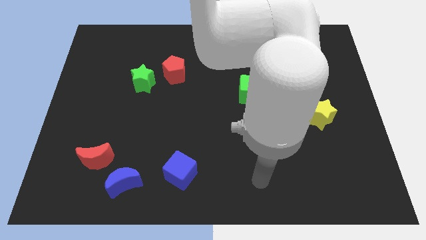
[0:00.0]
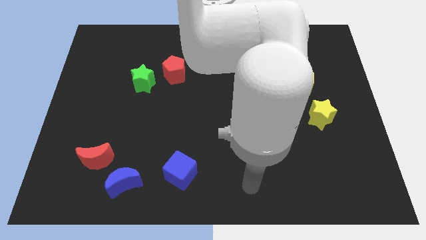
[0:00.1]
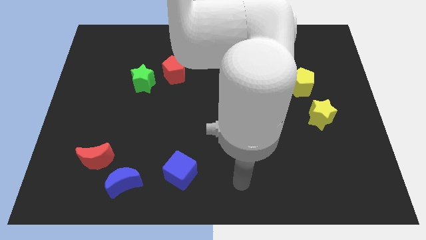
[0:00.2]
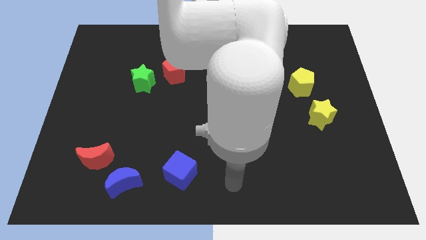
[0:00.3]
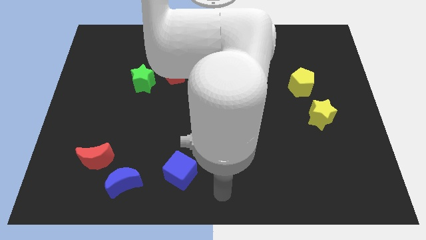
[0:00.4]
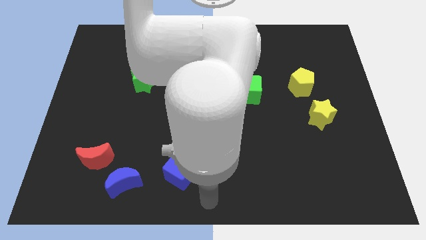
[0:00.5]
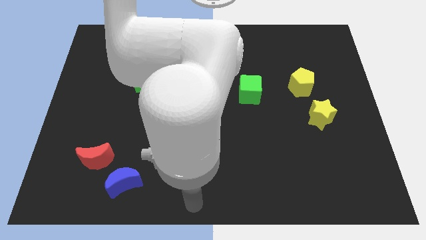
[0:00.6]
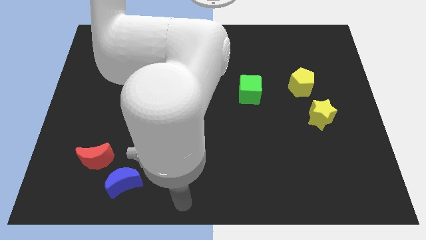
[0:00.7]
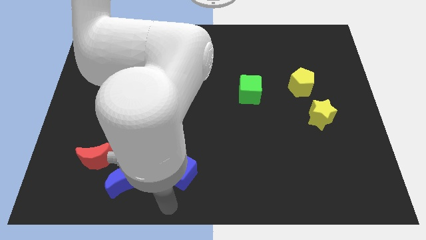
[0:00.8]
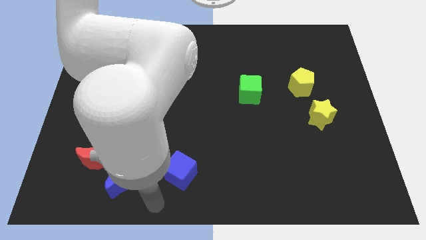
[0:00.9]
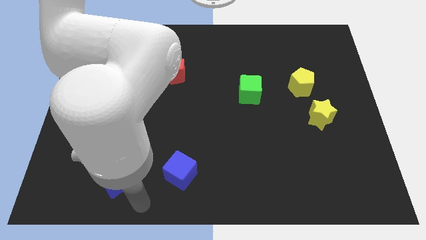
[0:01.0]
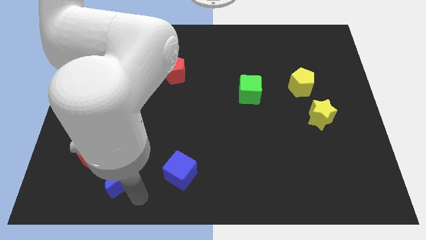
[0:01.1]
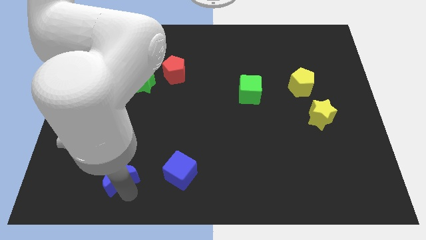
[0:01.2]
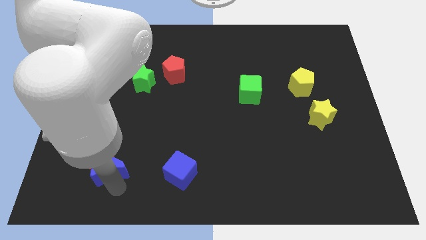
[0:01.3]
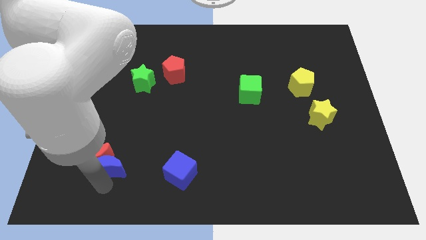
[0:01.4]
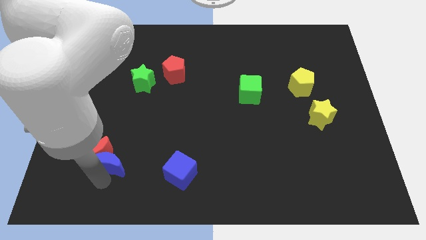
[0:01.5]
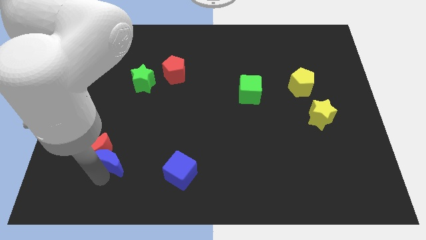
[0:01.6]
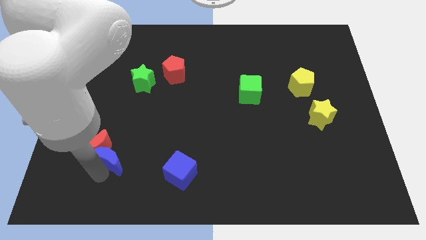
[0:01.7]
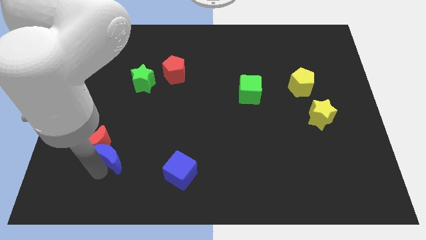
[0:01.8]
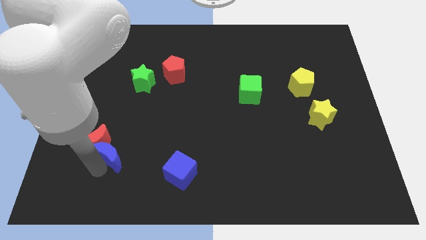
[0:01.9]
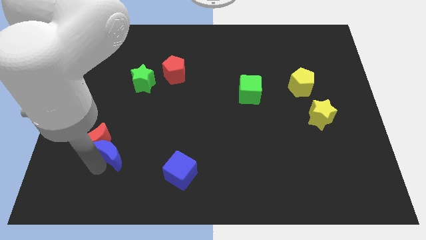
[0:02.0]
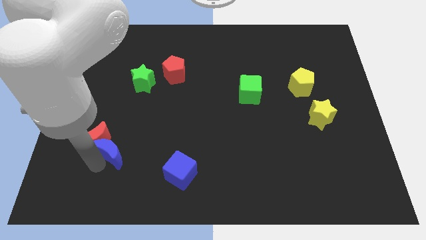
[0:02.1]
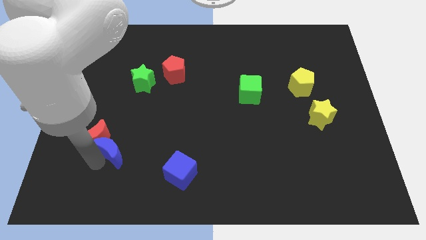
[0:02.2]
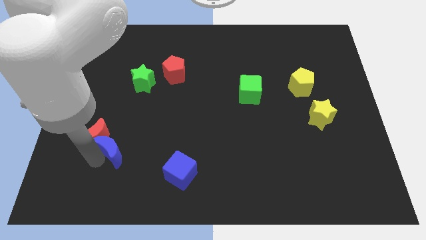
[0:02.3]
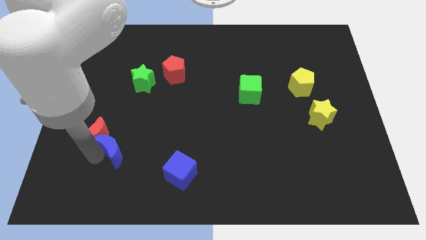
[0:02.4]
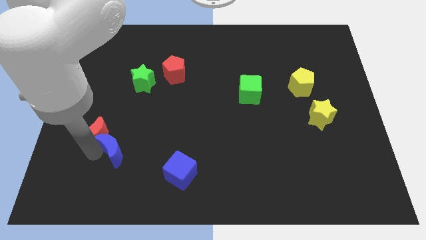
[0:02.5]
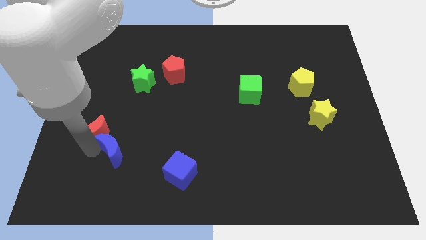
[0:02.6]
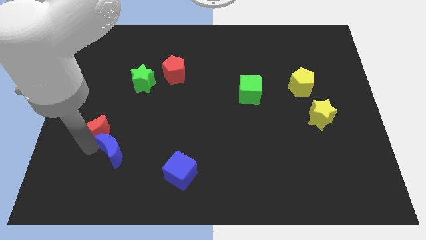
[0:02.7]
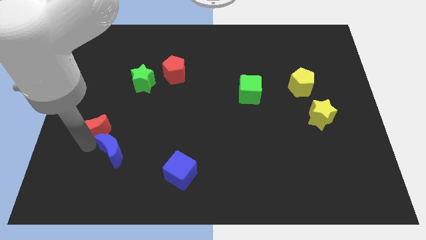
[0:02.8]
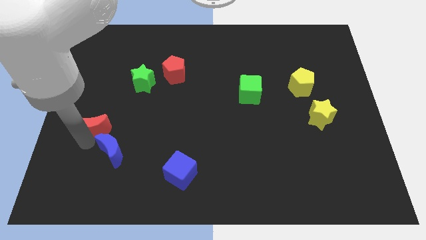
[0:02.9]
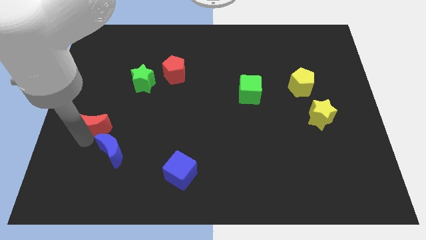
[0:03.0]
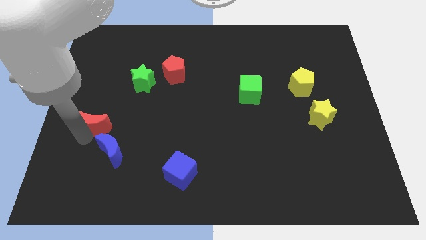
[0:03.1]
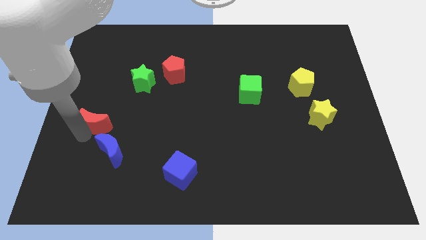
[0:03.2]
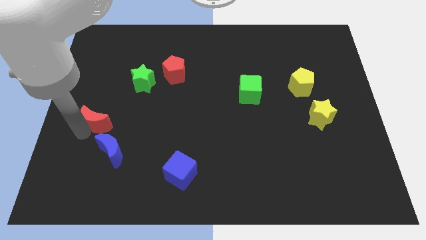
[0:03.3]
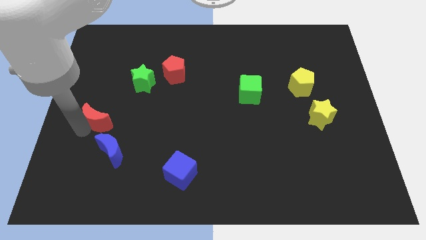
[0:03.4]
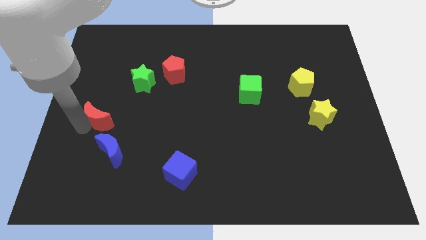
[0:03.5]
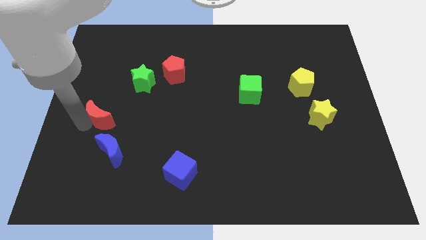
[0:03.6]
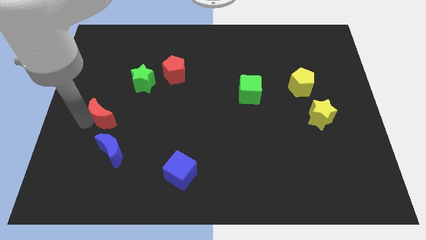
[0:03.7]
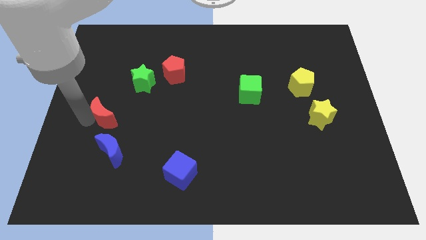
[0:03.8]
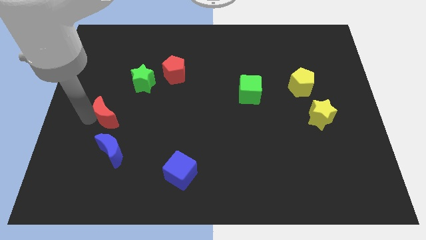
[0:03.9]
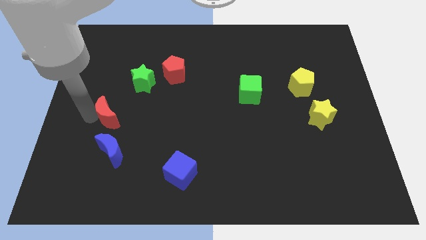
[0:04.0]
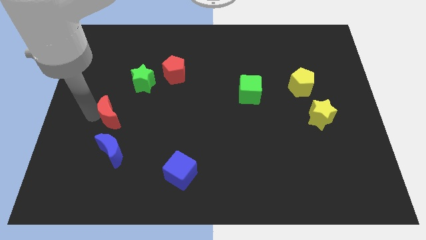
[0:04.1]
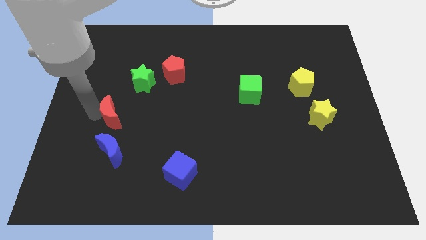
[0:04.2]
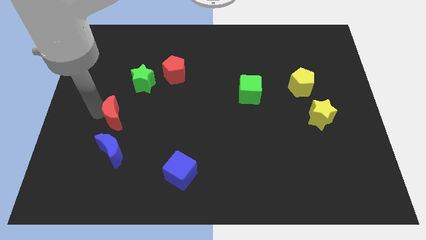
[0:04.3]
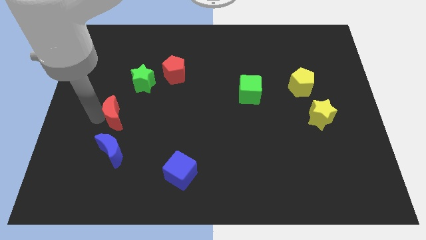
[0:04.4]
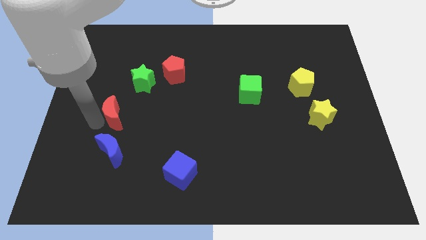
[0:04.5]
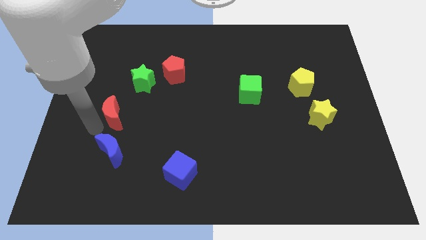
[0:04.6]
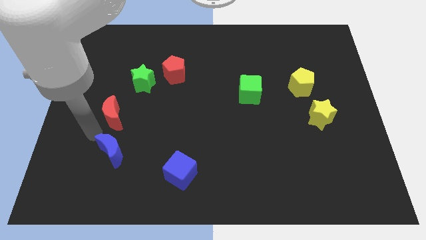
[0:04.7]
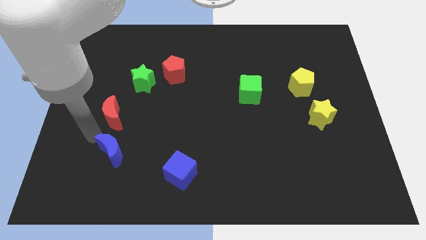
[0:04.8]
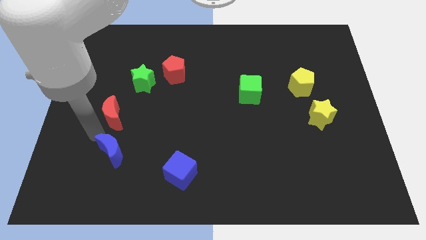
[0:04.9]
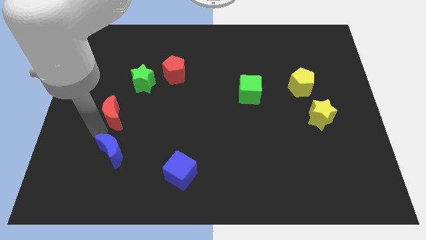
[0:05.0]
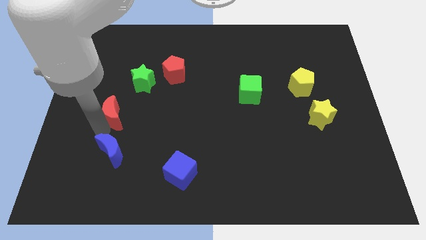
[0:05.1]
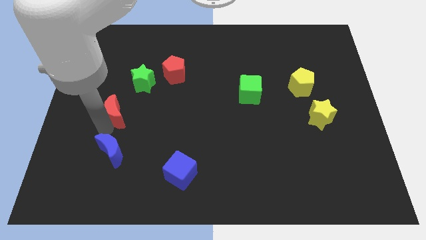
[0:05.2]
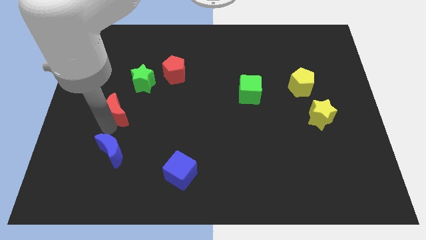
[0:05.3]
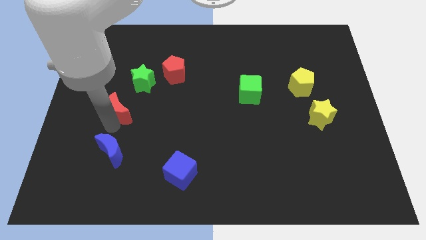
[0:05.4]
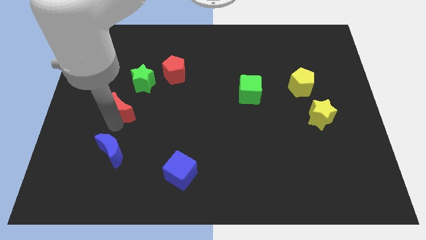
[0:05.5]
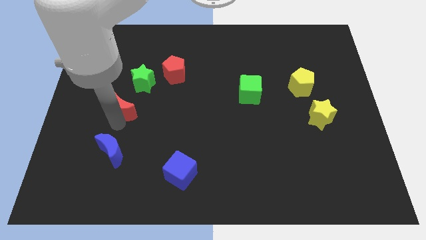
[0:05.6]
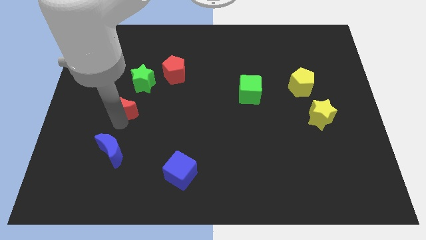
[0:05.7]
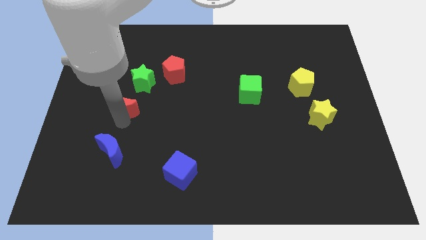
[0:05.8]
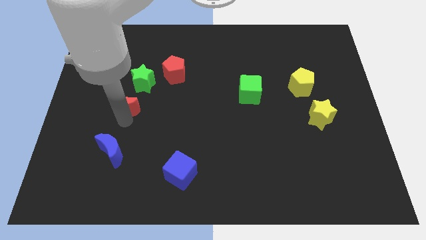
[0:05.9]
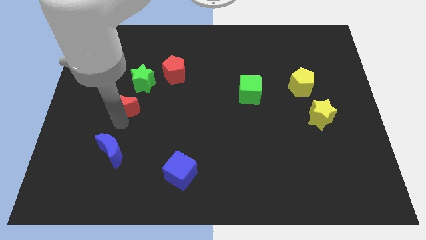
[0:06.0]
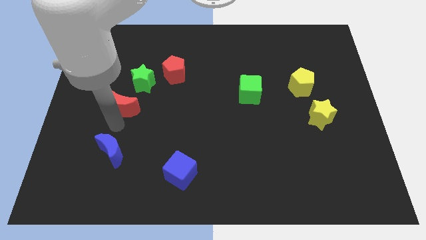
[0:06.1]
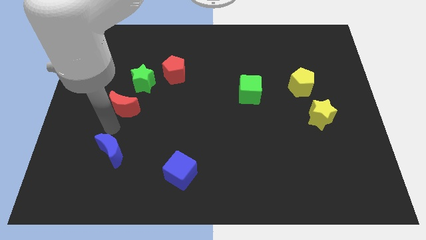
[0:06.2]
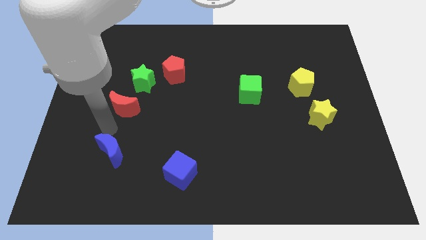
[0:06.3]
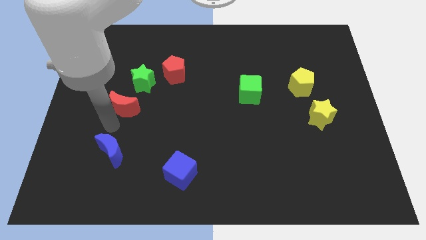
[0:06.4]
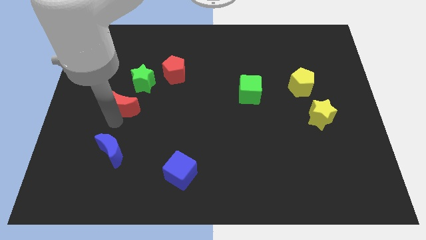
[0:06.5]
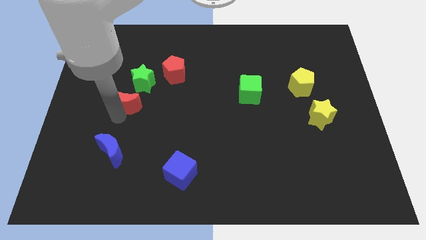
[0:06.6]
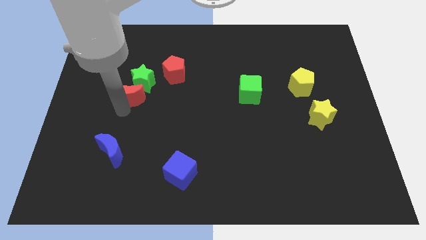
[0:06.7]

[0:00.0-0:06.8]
put the red moon towards the green star
